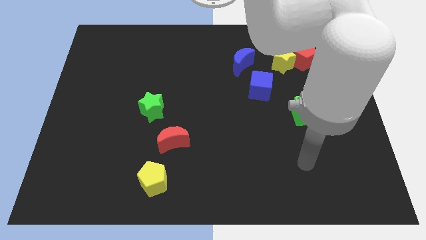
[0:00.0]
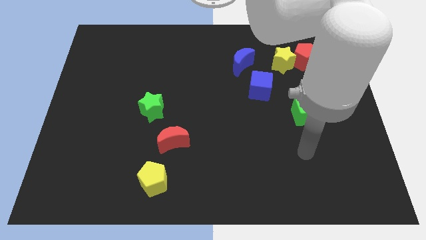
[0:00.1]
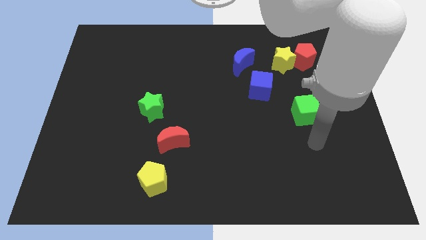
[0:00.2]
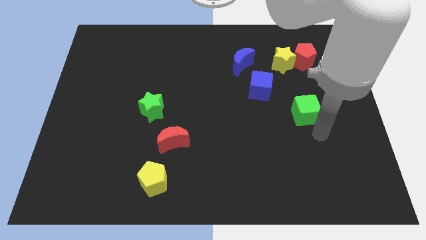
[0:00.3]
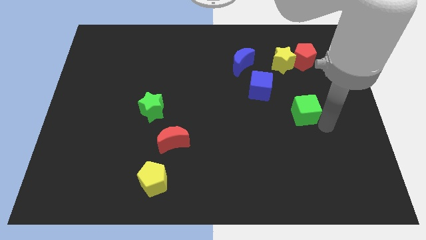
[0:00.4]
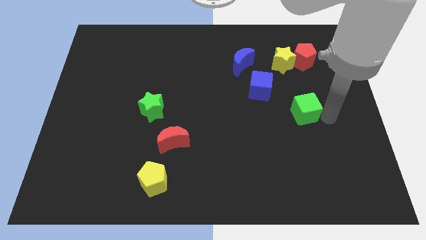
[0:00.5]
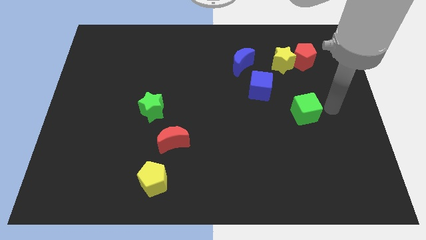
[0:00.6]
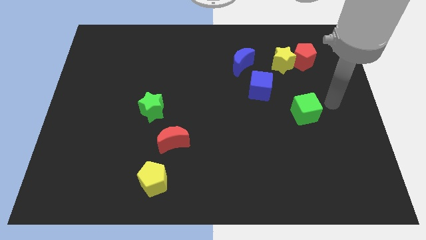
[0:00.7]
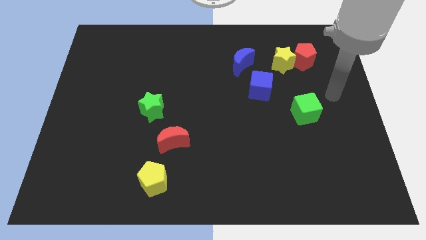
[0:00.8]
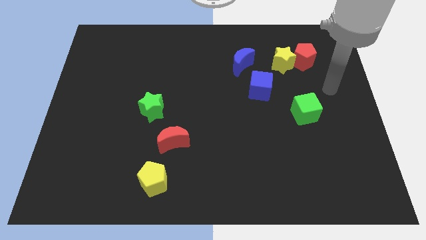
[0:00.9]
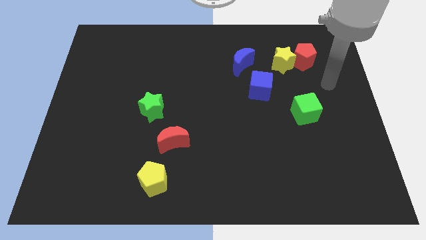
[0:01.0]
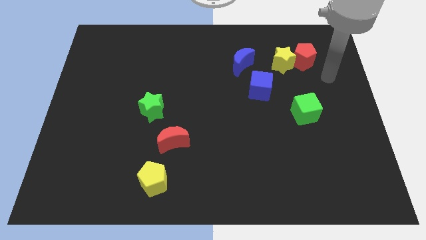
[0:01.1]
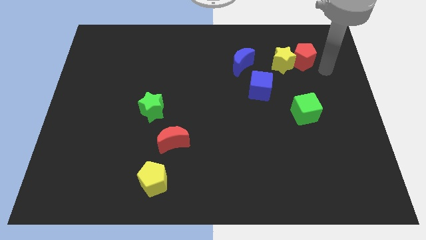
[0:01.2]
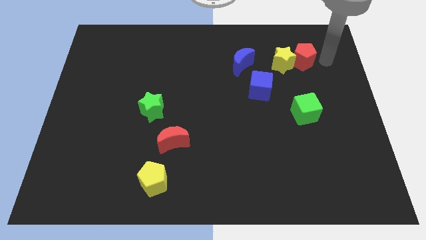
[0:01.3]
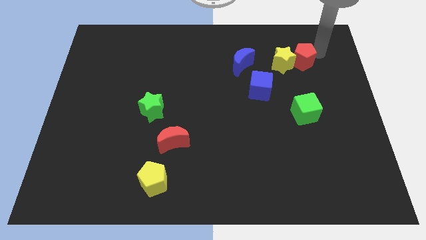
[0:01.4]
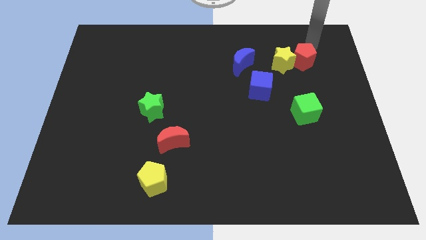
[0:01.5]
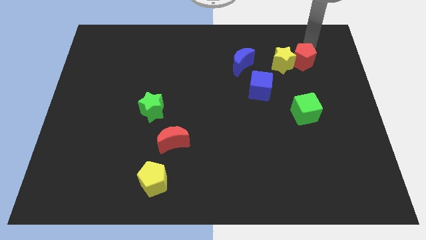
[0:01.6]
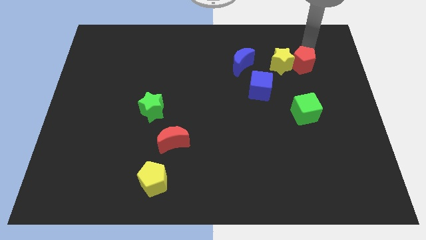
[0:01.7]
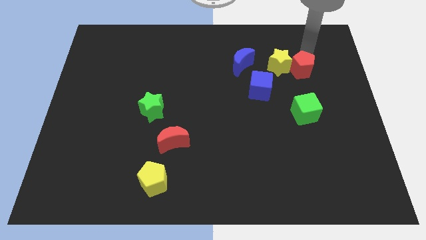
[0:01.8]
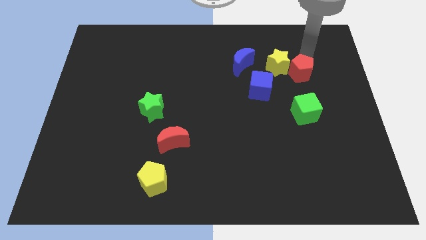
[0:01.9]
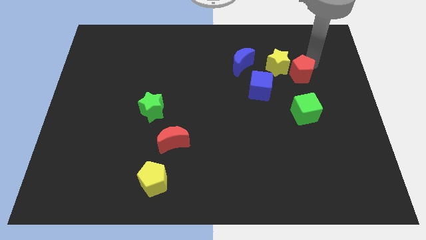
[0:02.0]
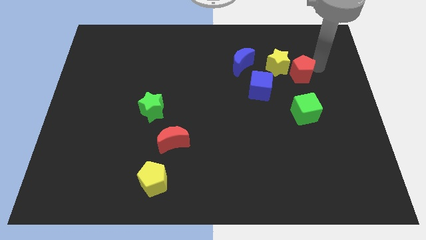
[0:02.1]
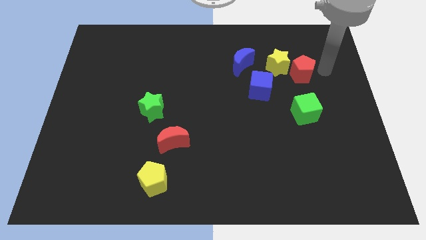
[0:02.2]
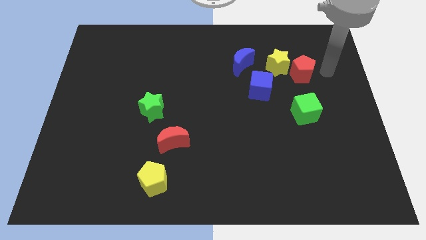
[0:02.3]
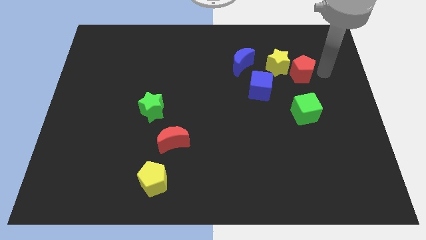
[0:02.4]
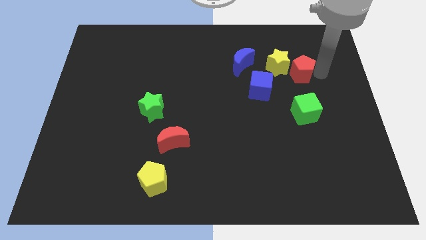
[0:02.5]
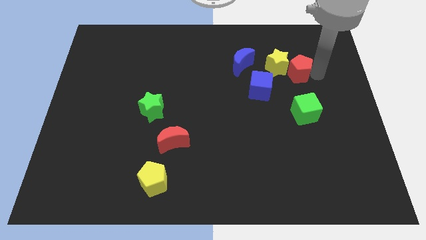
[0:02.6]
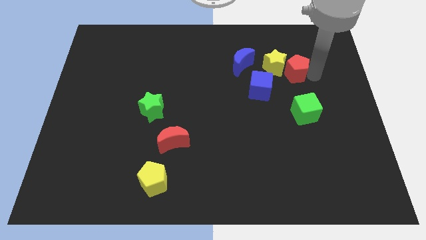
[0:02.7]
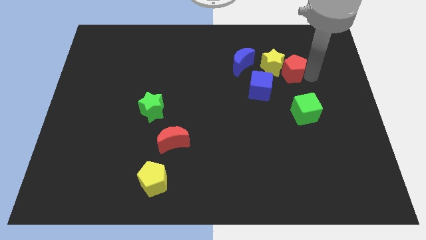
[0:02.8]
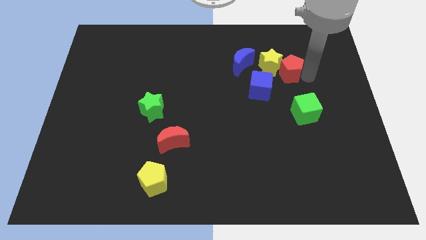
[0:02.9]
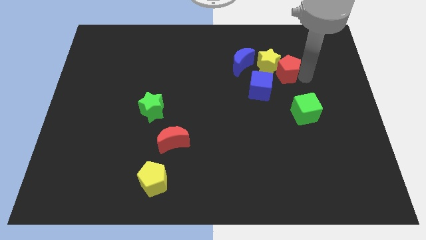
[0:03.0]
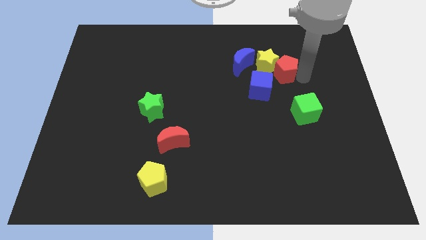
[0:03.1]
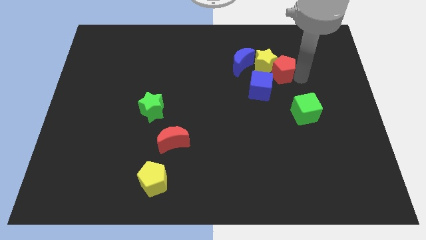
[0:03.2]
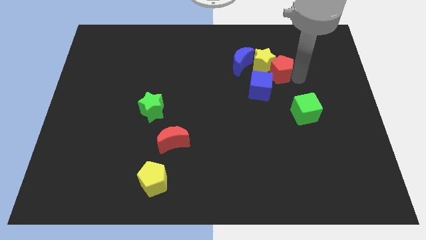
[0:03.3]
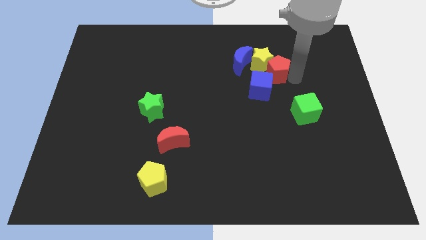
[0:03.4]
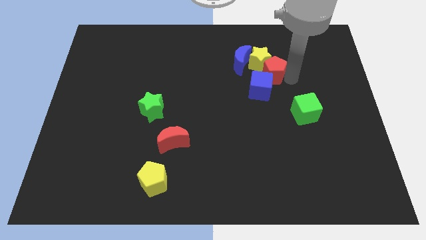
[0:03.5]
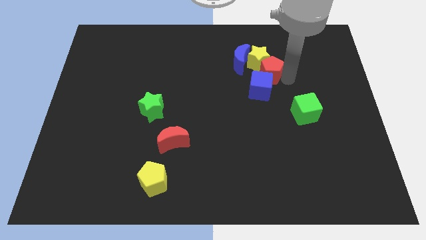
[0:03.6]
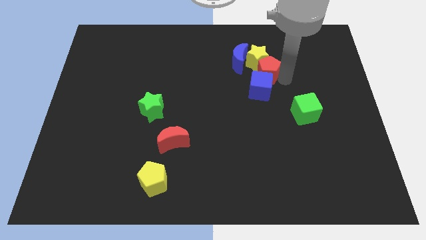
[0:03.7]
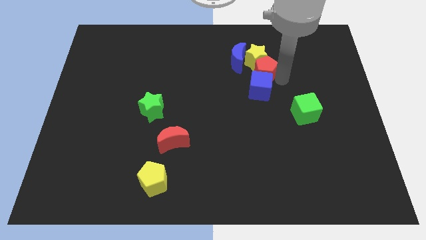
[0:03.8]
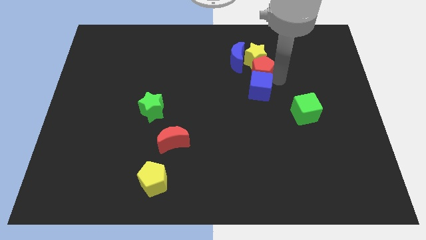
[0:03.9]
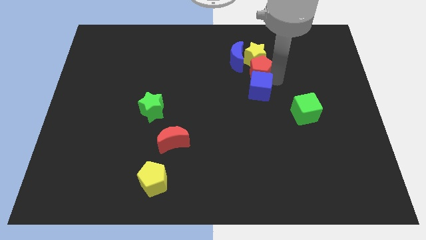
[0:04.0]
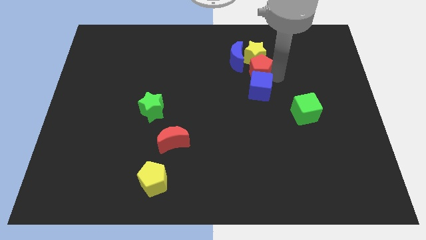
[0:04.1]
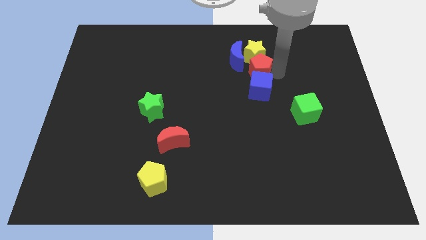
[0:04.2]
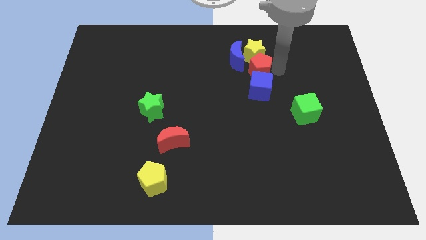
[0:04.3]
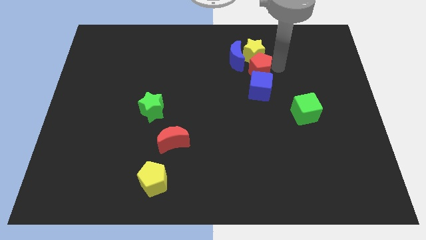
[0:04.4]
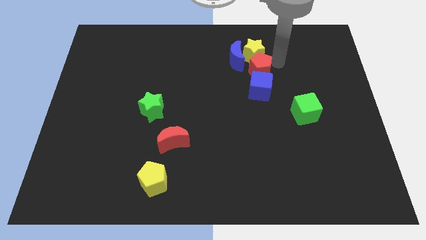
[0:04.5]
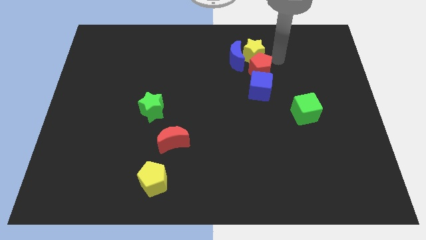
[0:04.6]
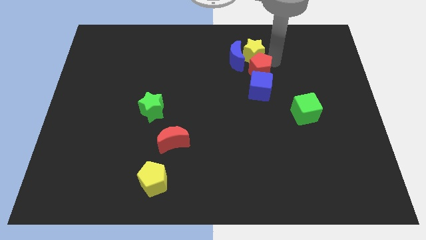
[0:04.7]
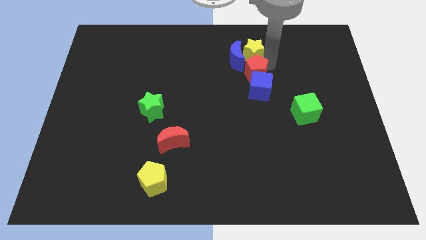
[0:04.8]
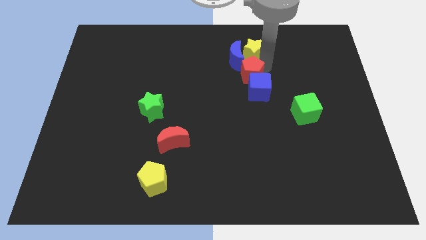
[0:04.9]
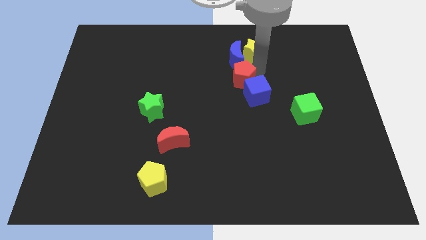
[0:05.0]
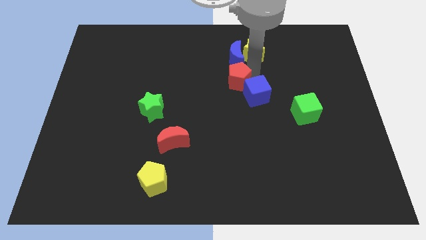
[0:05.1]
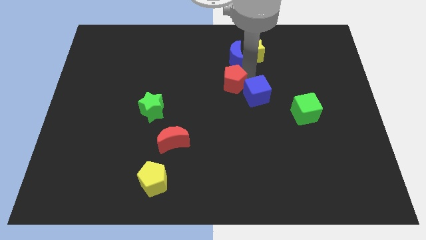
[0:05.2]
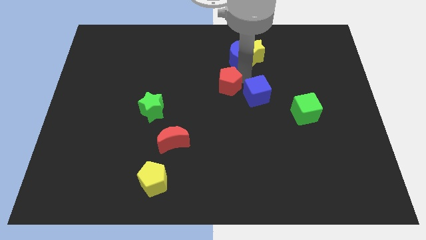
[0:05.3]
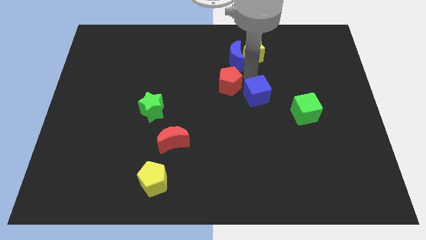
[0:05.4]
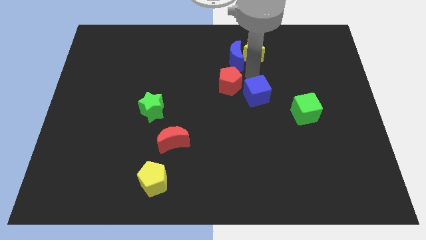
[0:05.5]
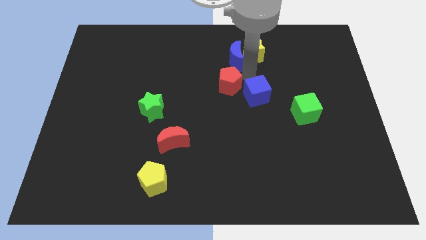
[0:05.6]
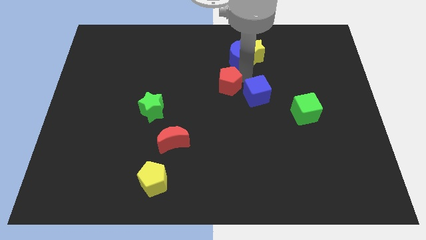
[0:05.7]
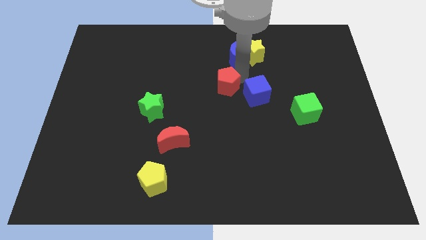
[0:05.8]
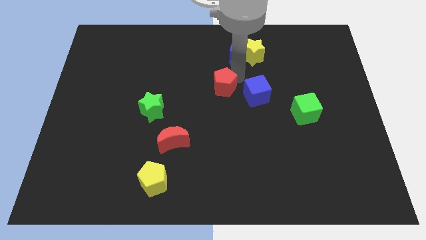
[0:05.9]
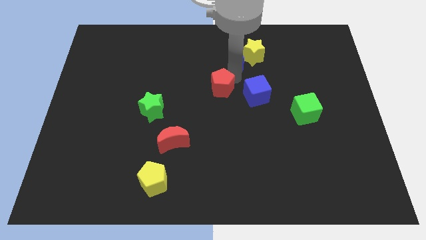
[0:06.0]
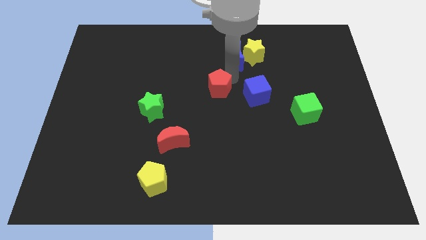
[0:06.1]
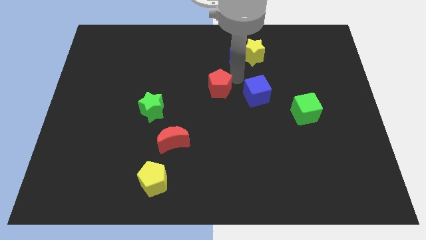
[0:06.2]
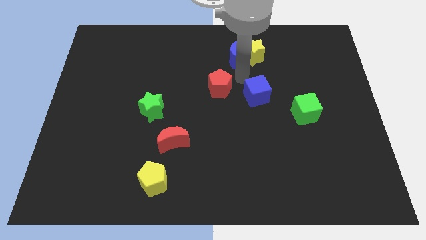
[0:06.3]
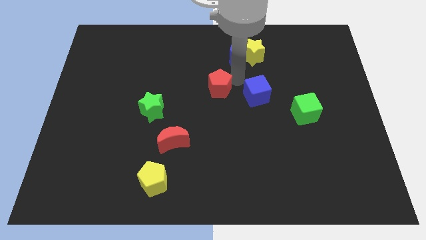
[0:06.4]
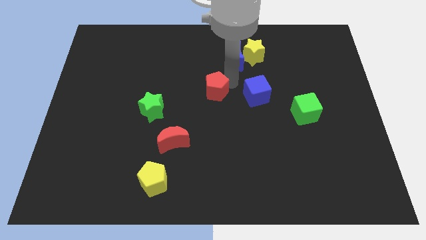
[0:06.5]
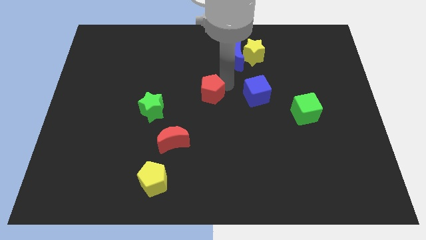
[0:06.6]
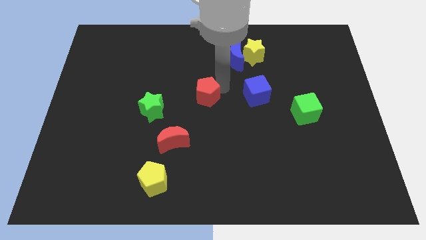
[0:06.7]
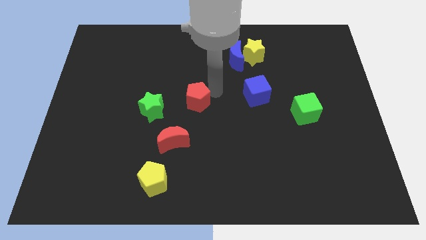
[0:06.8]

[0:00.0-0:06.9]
move the red pentagon to the top side of the red moon
